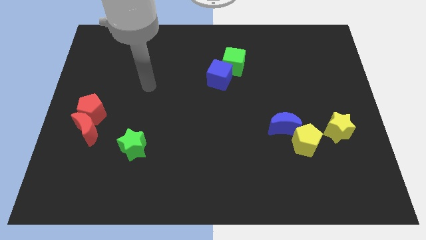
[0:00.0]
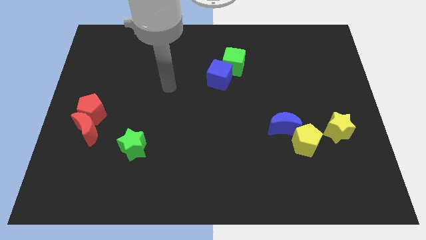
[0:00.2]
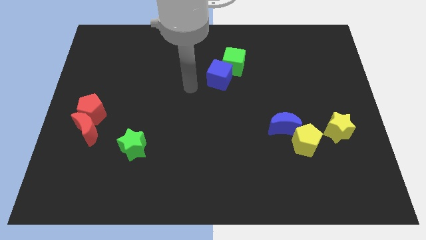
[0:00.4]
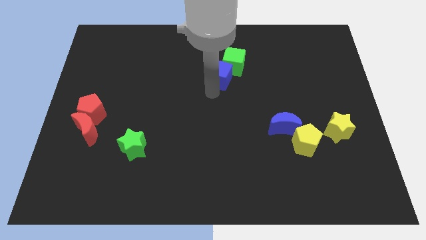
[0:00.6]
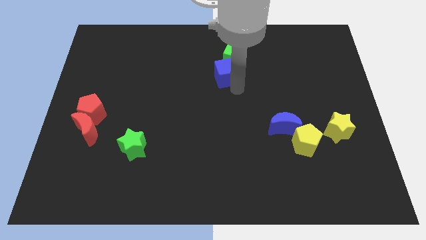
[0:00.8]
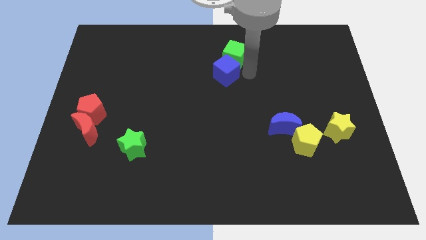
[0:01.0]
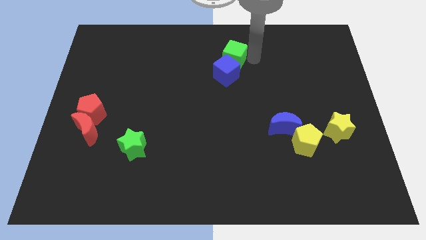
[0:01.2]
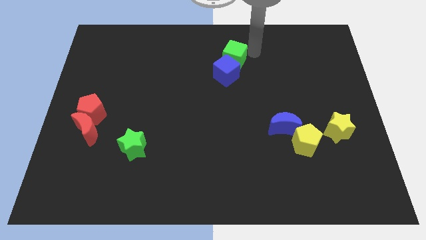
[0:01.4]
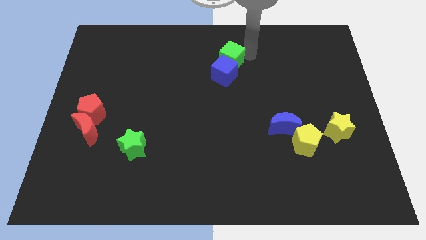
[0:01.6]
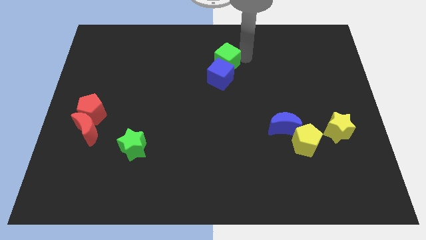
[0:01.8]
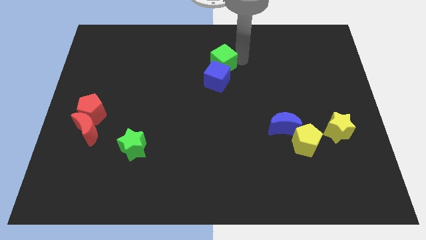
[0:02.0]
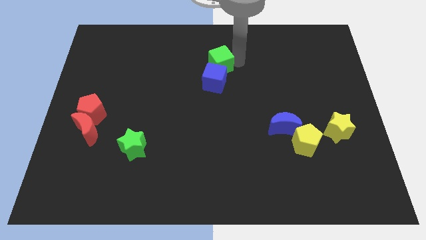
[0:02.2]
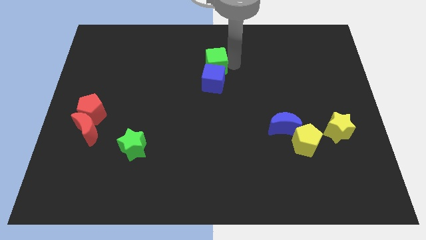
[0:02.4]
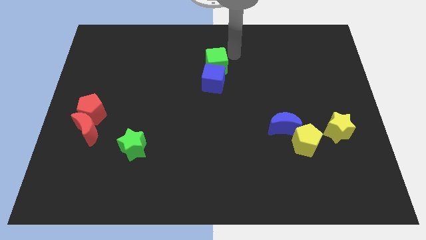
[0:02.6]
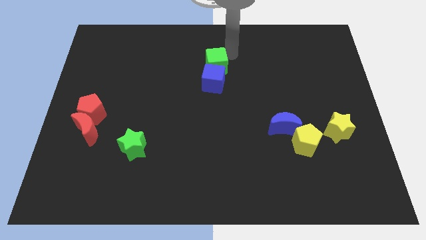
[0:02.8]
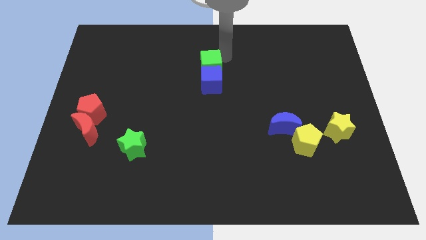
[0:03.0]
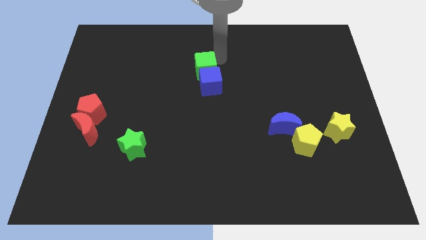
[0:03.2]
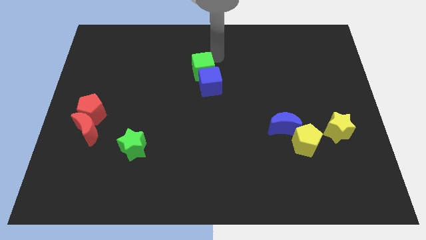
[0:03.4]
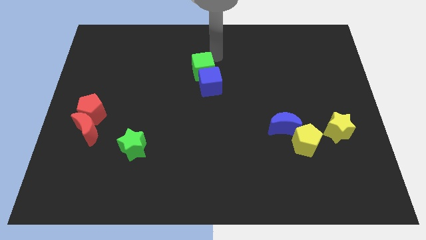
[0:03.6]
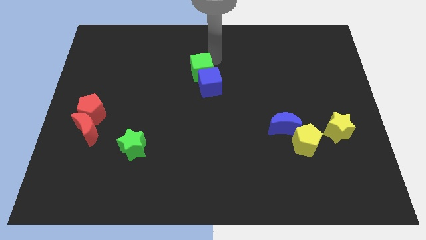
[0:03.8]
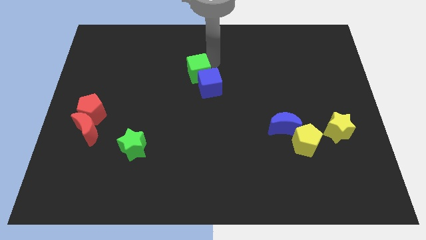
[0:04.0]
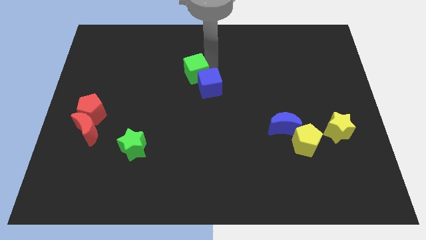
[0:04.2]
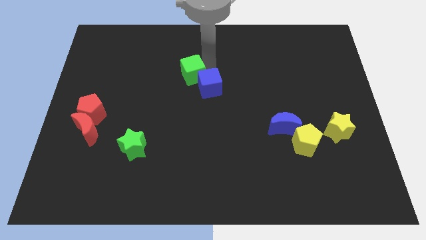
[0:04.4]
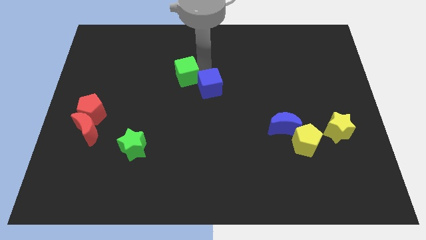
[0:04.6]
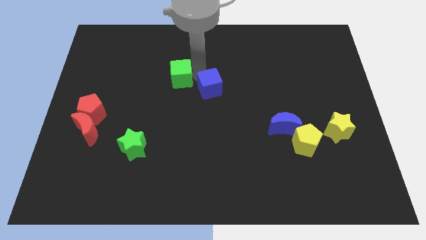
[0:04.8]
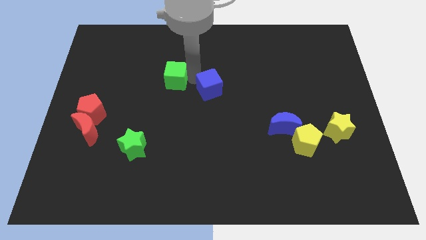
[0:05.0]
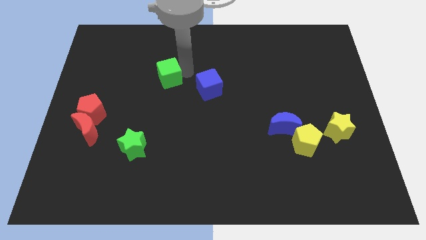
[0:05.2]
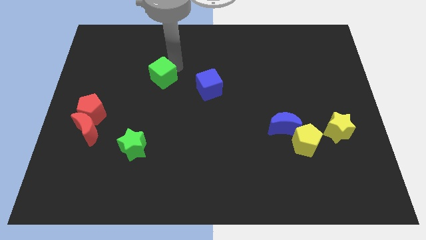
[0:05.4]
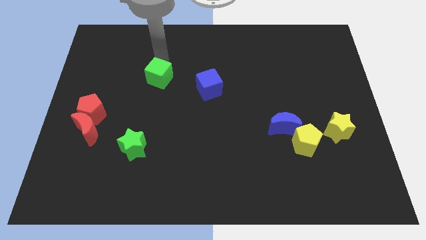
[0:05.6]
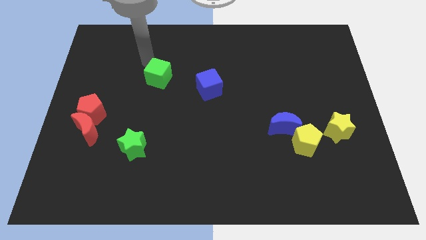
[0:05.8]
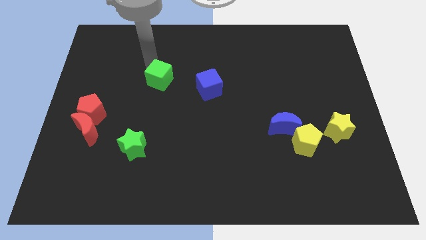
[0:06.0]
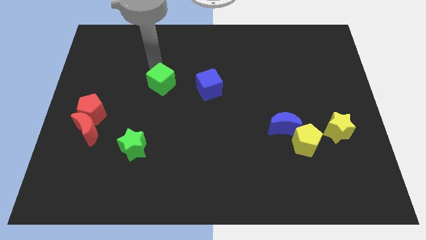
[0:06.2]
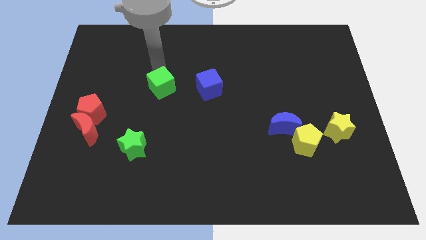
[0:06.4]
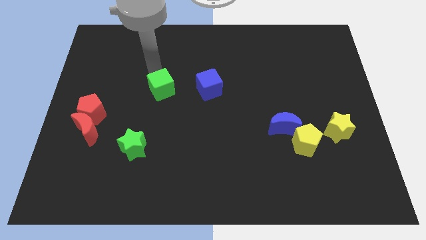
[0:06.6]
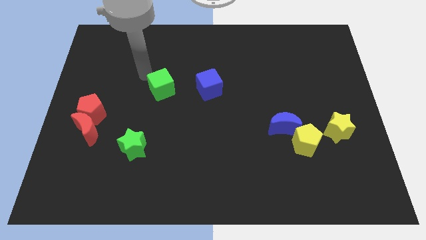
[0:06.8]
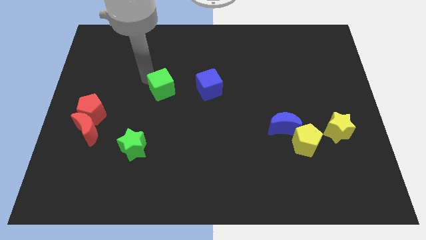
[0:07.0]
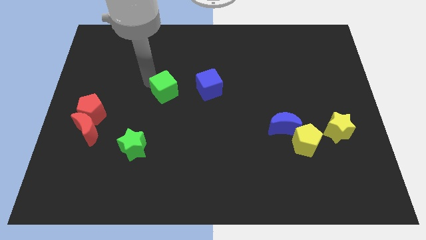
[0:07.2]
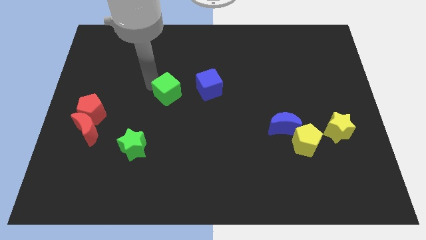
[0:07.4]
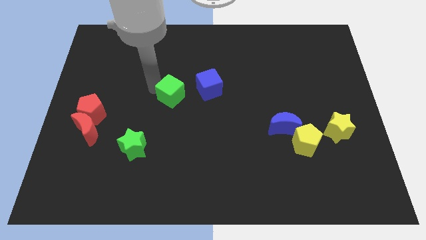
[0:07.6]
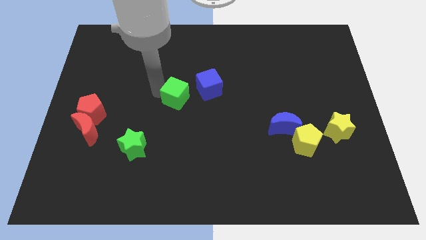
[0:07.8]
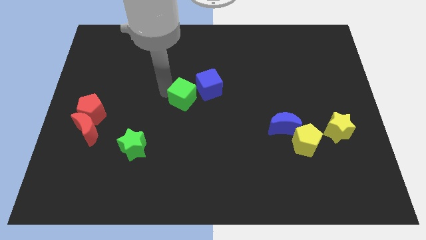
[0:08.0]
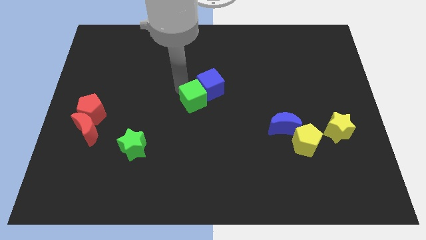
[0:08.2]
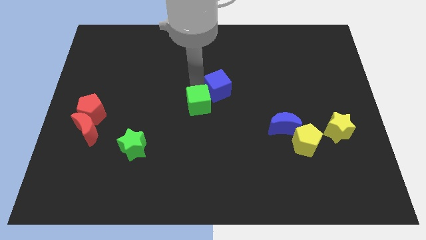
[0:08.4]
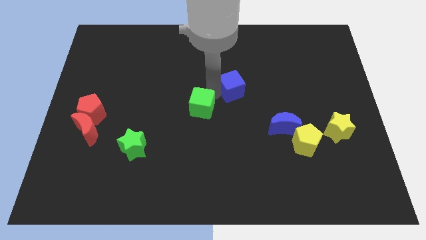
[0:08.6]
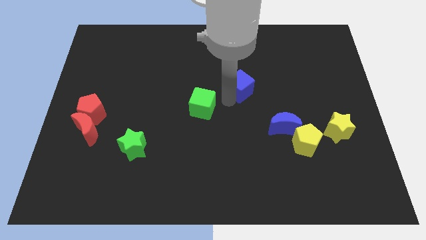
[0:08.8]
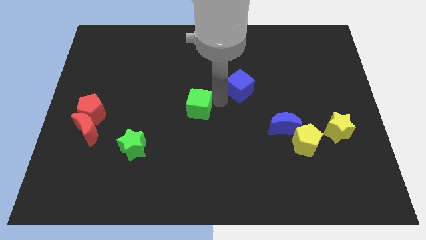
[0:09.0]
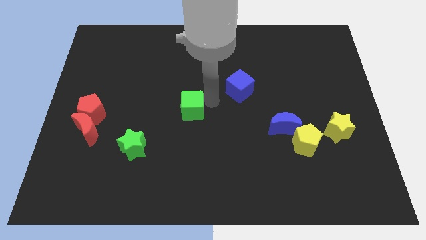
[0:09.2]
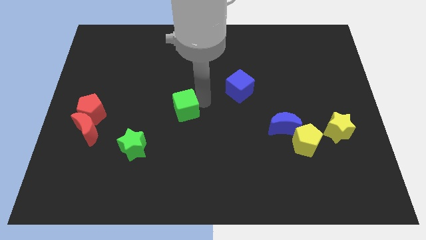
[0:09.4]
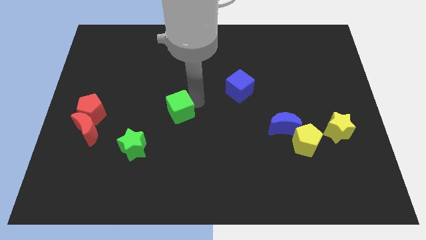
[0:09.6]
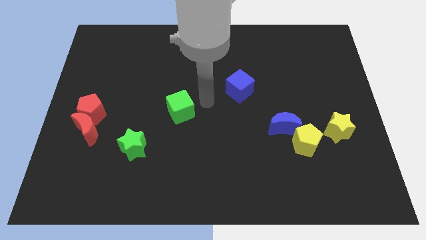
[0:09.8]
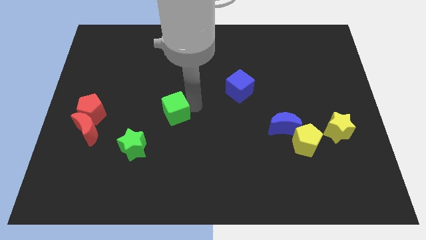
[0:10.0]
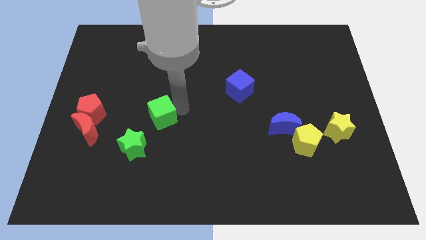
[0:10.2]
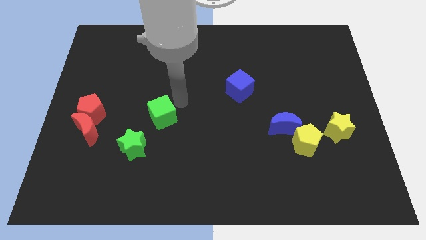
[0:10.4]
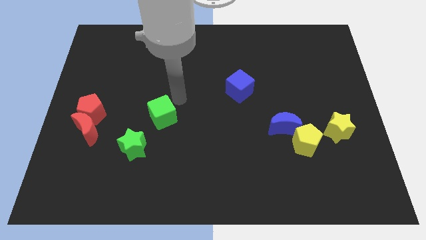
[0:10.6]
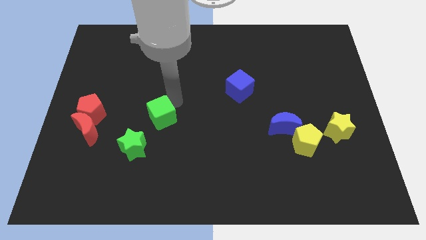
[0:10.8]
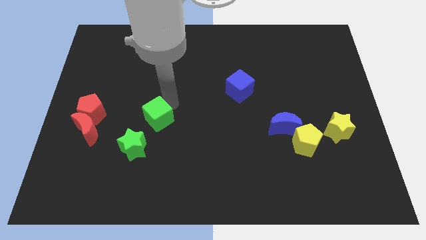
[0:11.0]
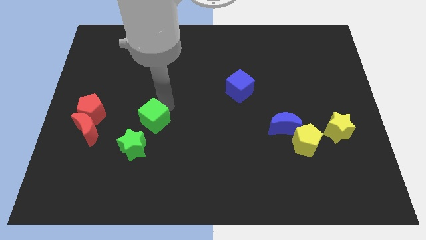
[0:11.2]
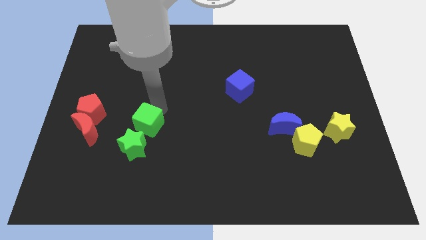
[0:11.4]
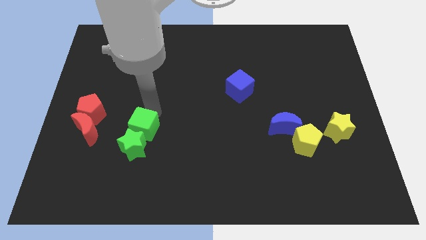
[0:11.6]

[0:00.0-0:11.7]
put the green cube towards the green star

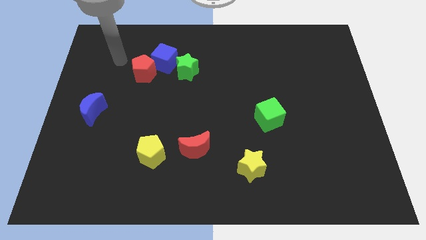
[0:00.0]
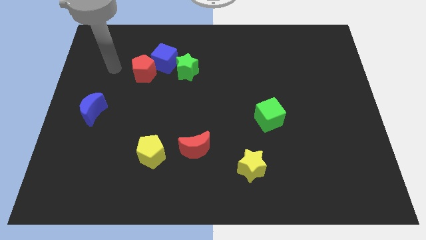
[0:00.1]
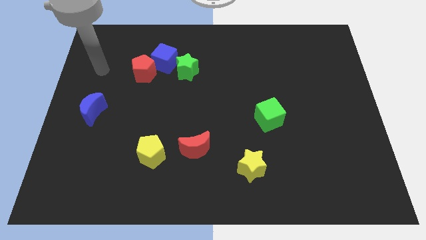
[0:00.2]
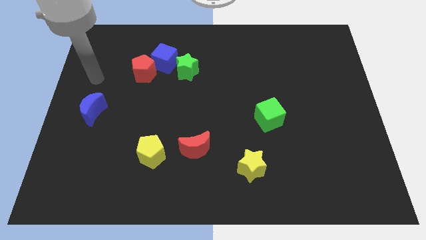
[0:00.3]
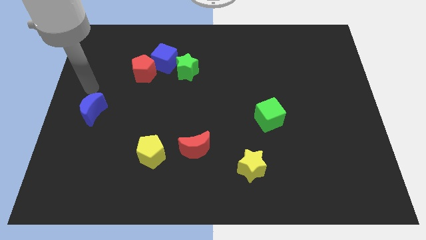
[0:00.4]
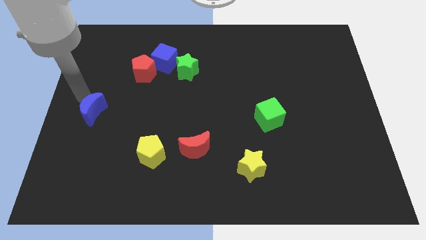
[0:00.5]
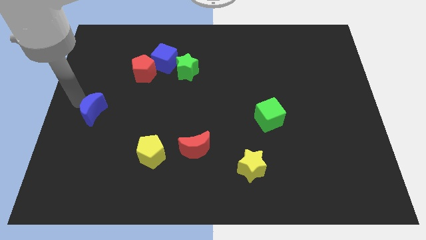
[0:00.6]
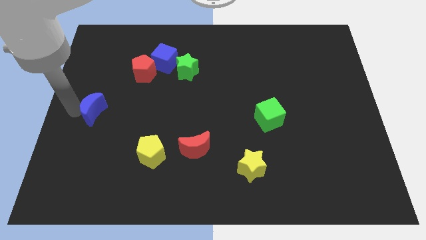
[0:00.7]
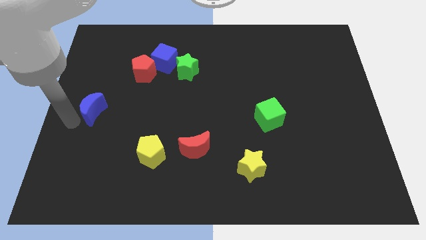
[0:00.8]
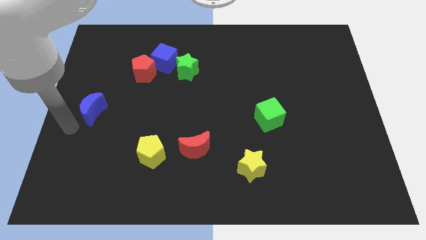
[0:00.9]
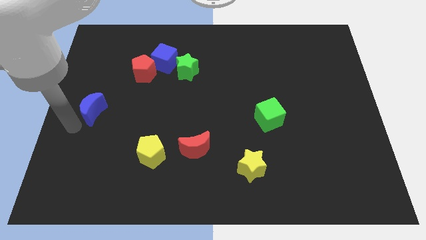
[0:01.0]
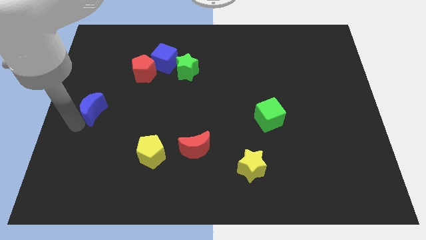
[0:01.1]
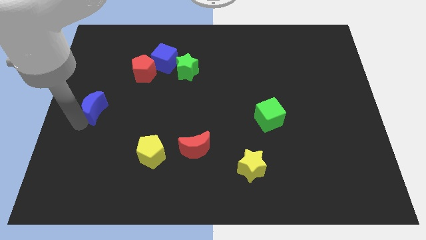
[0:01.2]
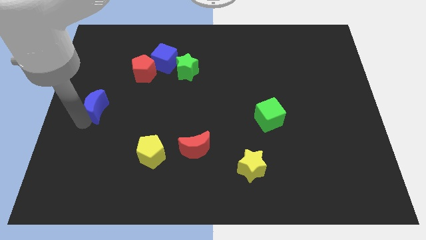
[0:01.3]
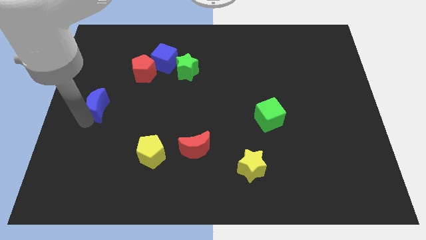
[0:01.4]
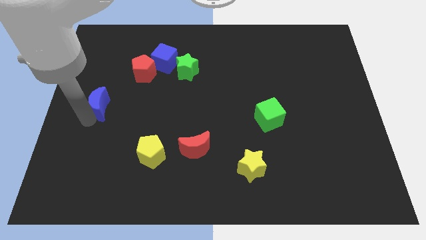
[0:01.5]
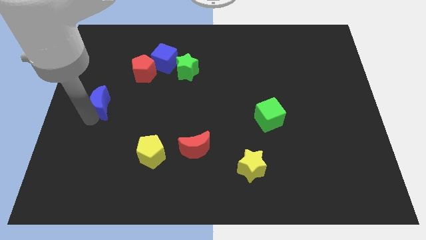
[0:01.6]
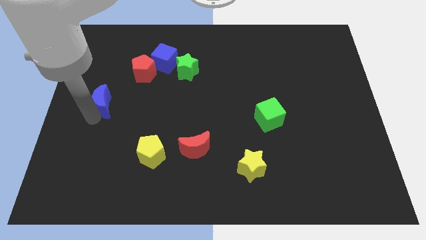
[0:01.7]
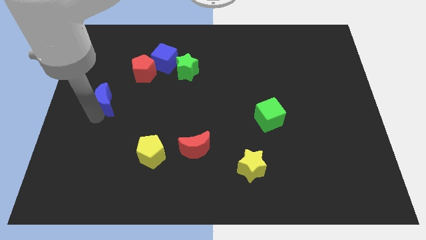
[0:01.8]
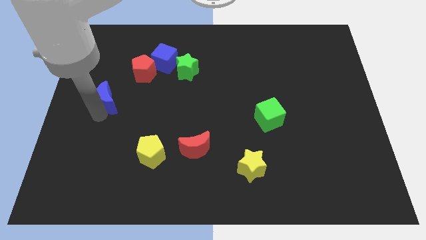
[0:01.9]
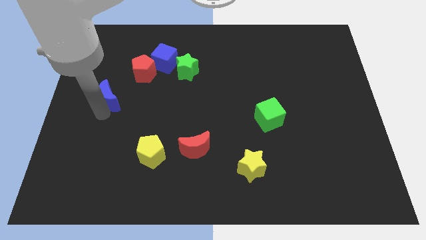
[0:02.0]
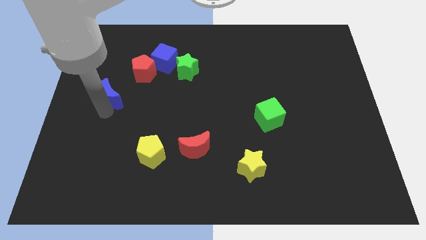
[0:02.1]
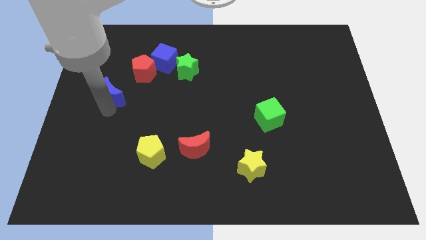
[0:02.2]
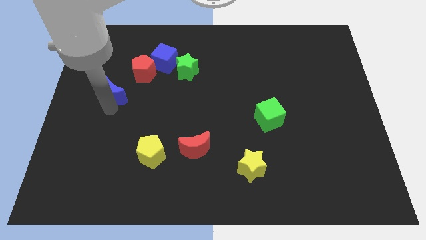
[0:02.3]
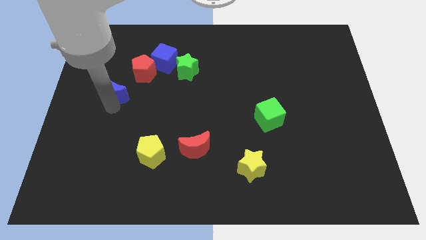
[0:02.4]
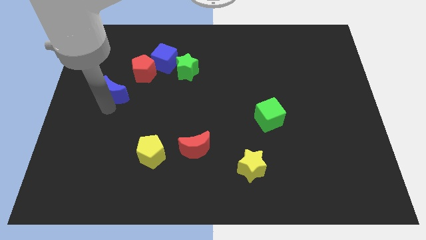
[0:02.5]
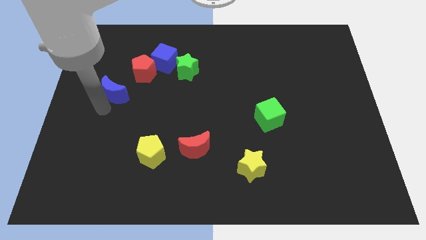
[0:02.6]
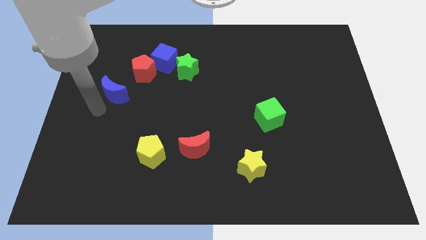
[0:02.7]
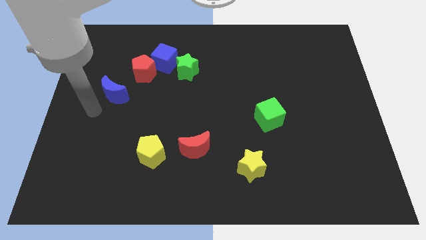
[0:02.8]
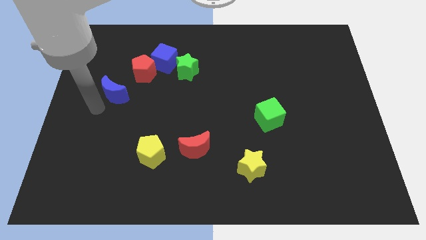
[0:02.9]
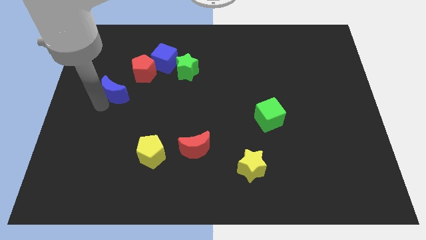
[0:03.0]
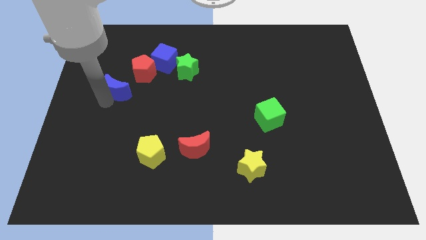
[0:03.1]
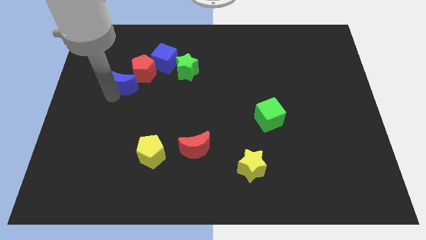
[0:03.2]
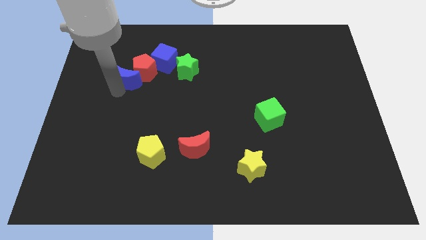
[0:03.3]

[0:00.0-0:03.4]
slide the blue moon towards the red pentagon
